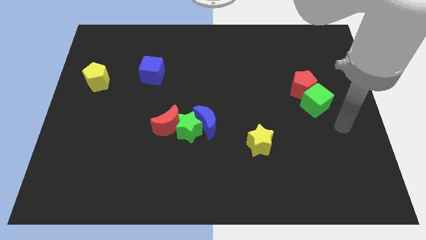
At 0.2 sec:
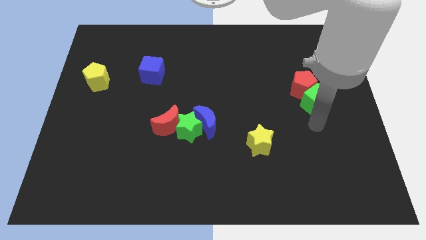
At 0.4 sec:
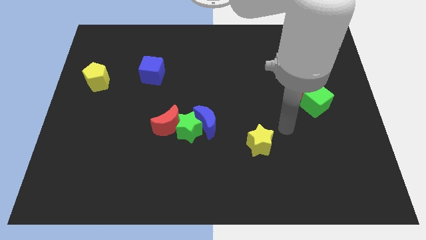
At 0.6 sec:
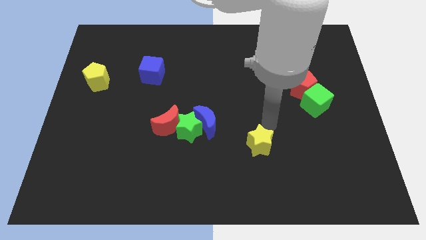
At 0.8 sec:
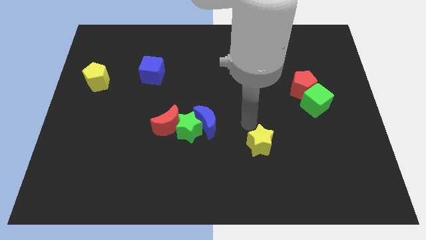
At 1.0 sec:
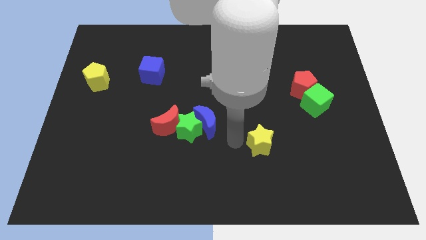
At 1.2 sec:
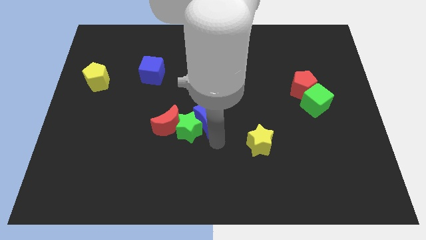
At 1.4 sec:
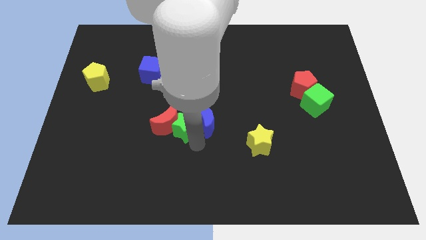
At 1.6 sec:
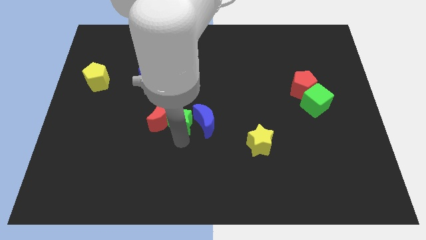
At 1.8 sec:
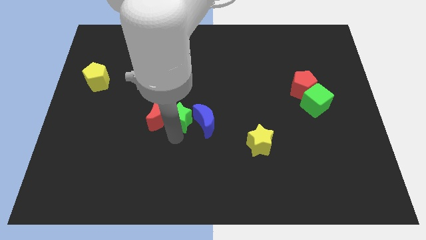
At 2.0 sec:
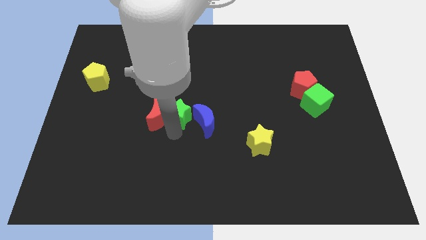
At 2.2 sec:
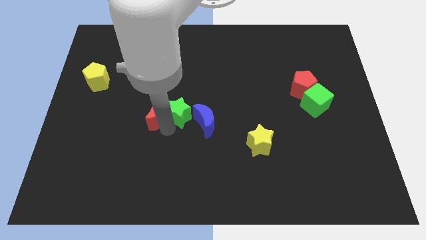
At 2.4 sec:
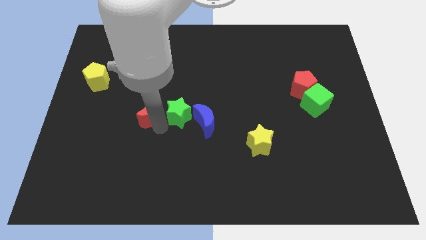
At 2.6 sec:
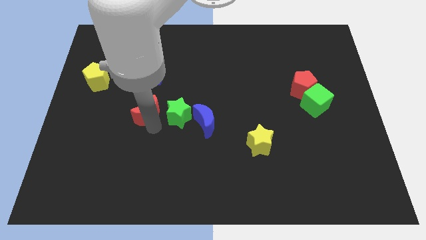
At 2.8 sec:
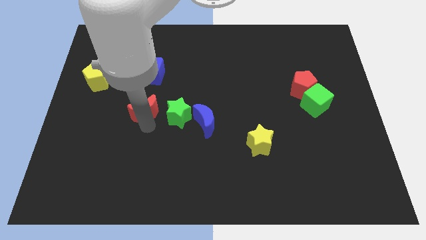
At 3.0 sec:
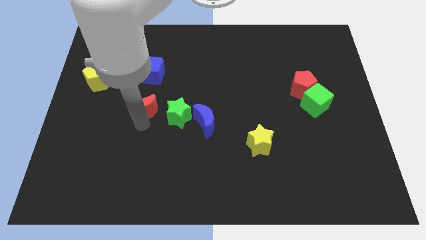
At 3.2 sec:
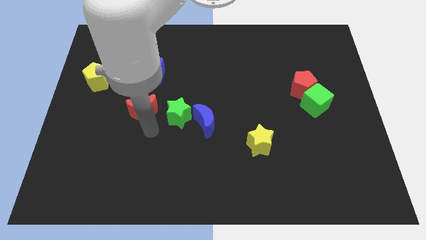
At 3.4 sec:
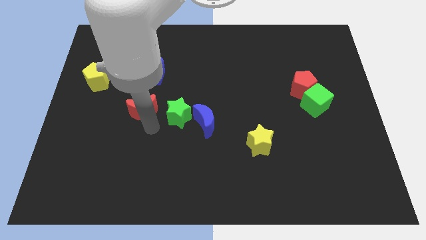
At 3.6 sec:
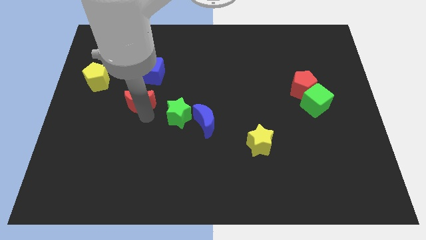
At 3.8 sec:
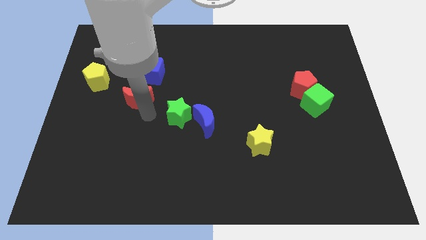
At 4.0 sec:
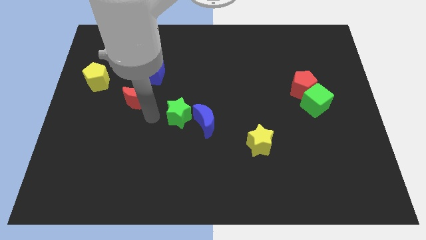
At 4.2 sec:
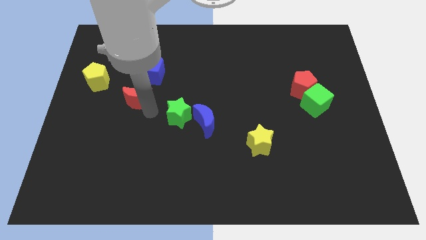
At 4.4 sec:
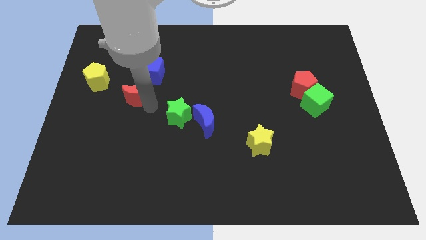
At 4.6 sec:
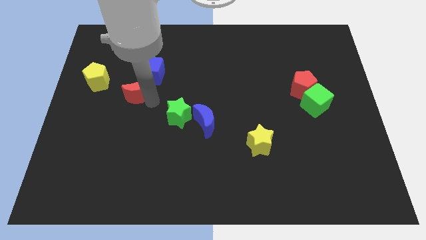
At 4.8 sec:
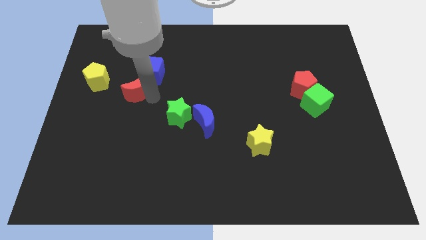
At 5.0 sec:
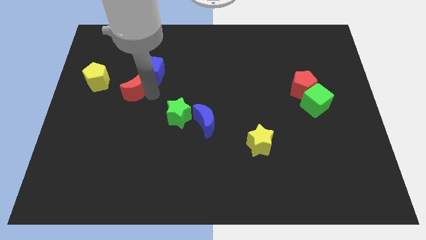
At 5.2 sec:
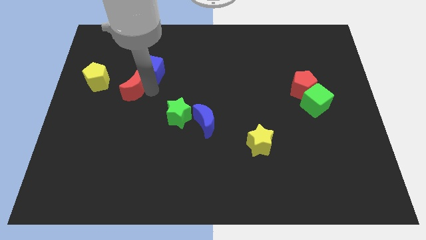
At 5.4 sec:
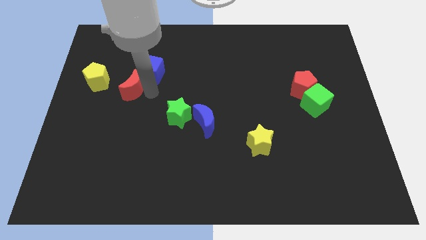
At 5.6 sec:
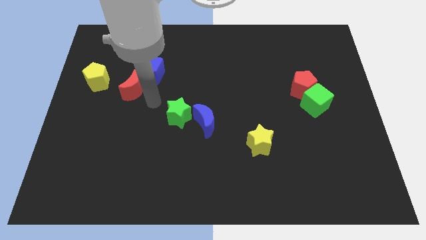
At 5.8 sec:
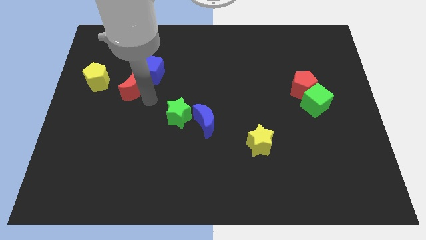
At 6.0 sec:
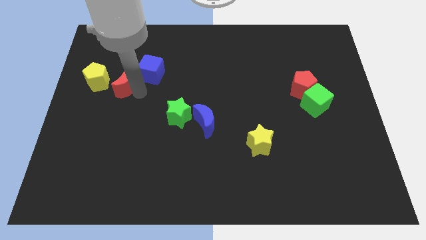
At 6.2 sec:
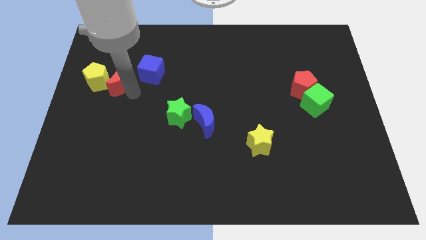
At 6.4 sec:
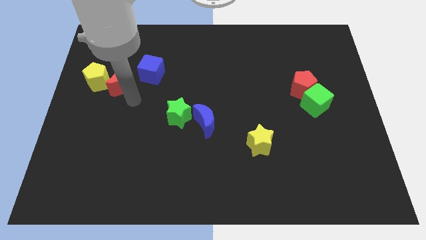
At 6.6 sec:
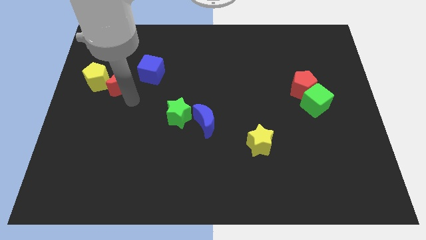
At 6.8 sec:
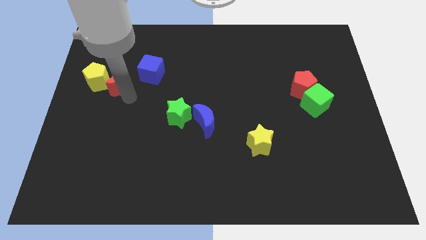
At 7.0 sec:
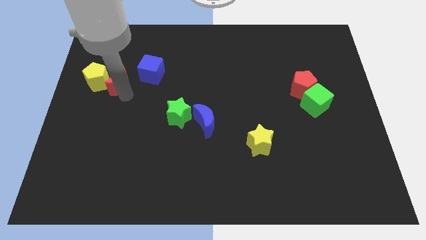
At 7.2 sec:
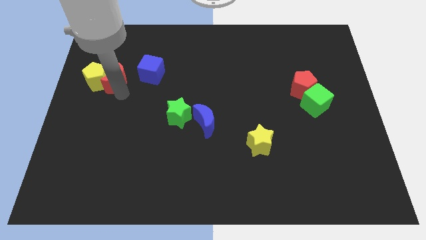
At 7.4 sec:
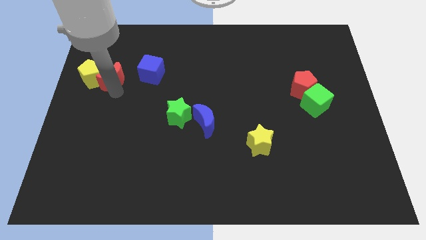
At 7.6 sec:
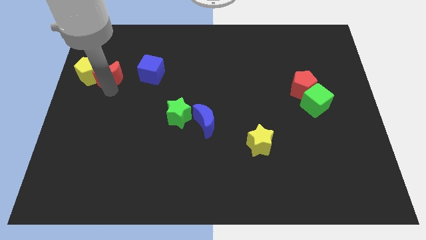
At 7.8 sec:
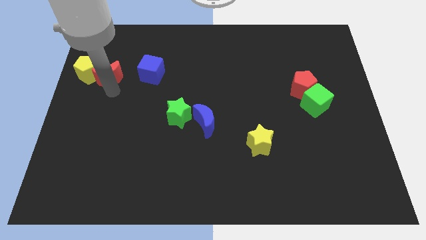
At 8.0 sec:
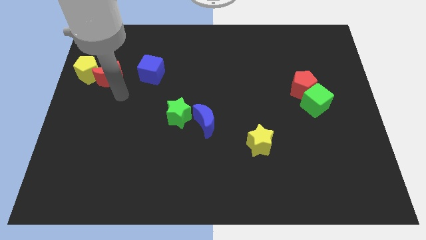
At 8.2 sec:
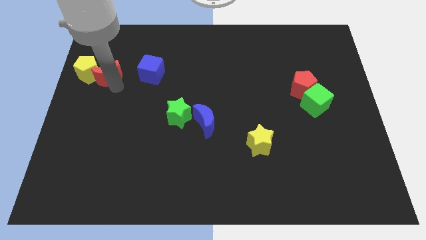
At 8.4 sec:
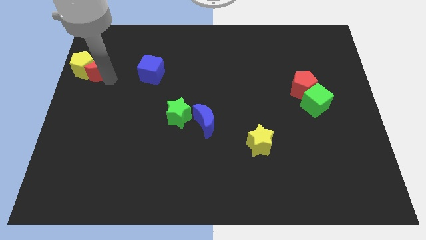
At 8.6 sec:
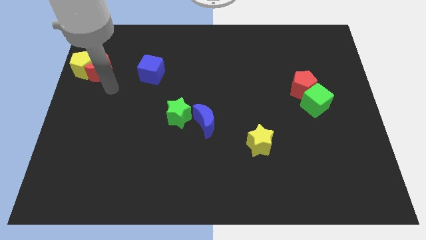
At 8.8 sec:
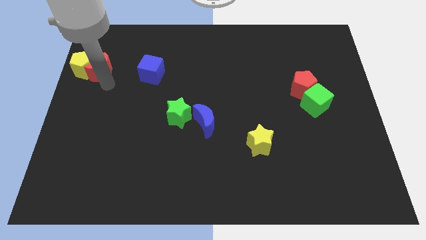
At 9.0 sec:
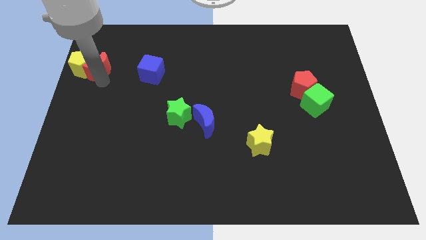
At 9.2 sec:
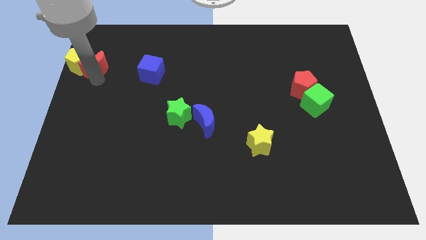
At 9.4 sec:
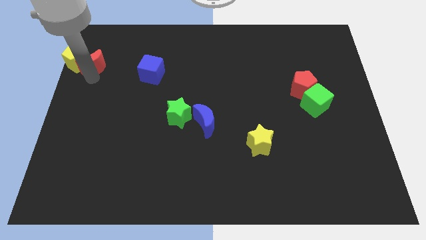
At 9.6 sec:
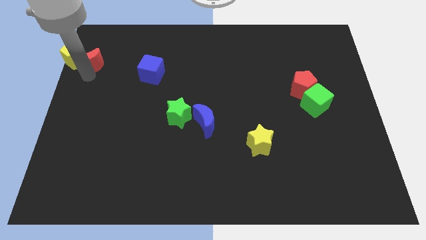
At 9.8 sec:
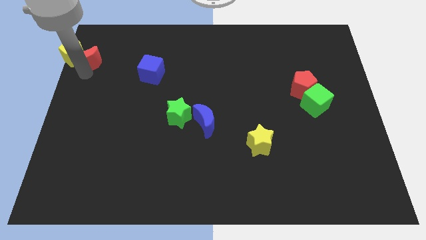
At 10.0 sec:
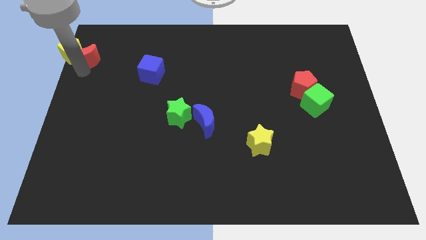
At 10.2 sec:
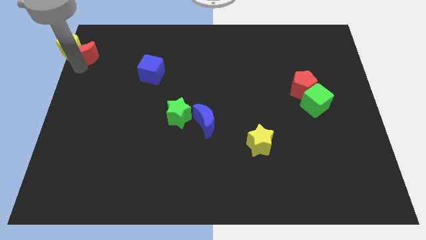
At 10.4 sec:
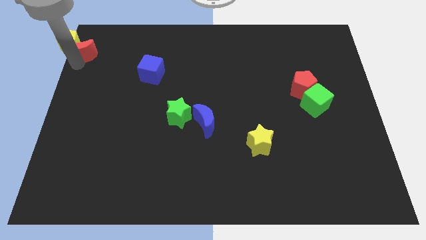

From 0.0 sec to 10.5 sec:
move the red moon to the top left of the board
